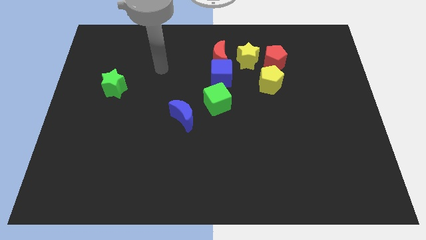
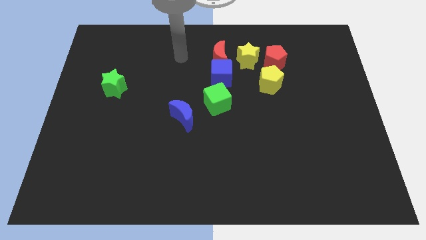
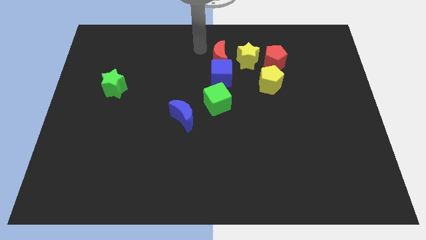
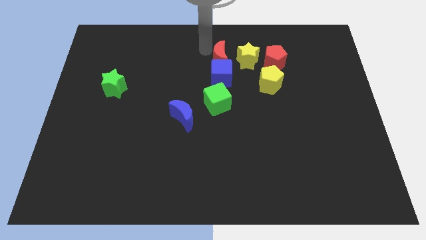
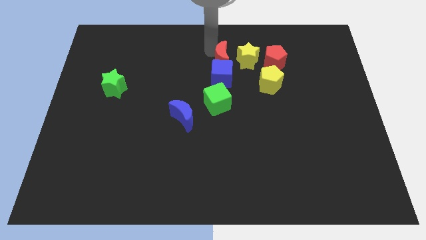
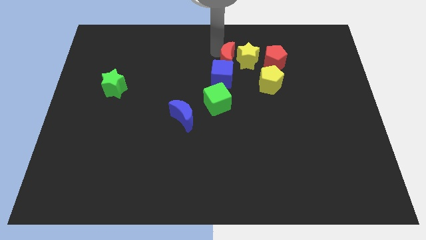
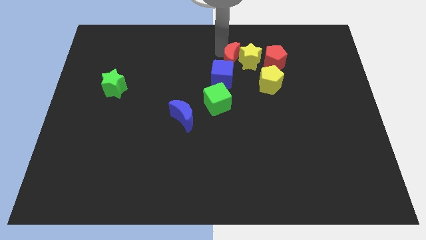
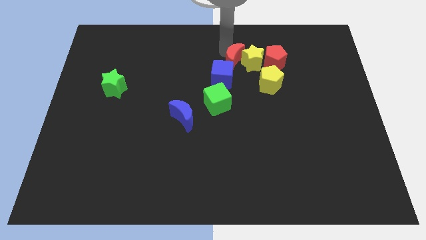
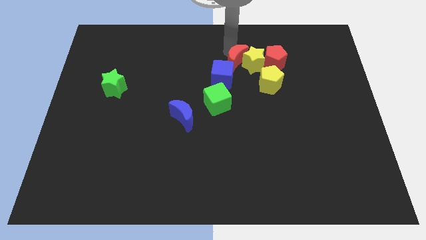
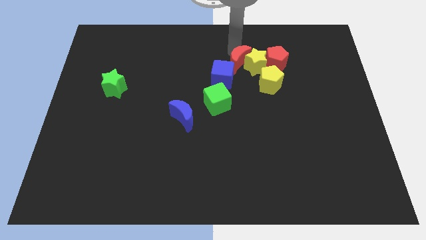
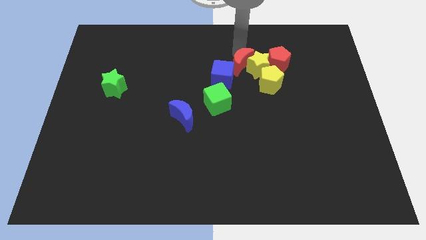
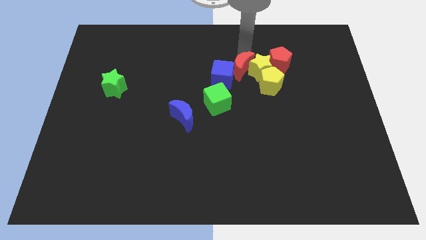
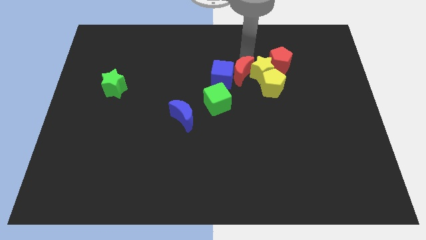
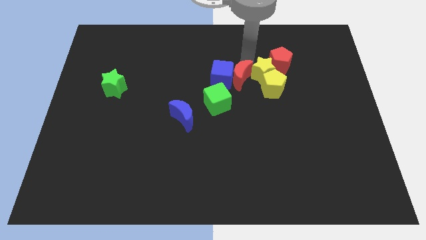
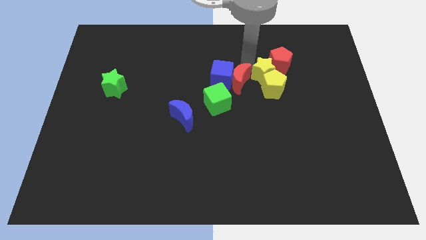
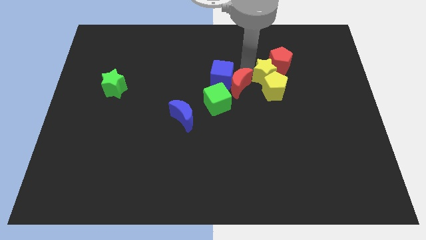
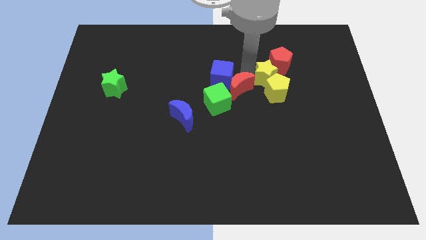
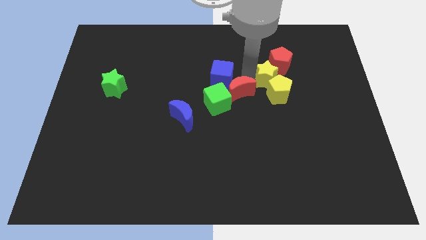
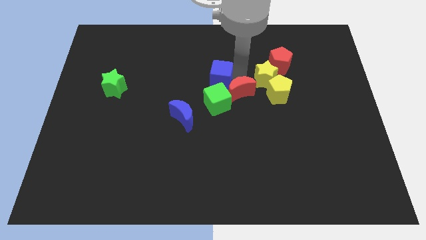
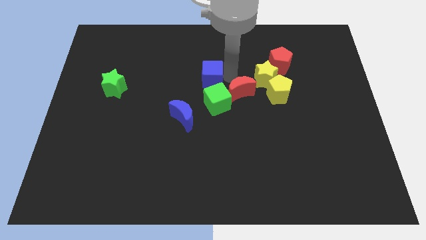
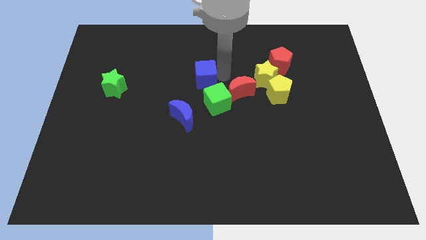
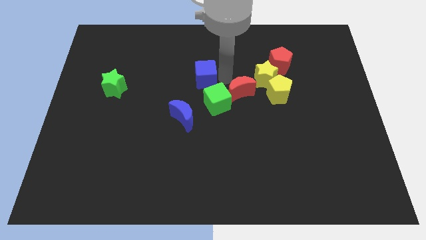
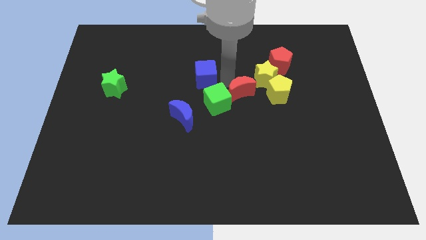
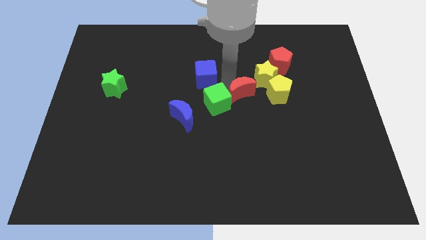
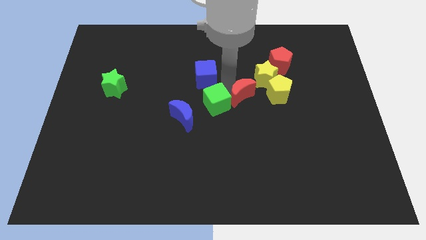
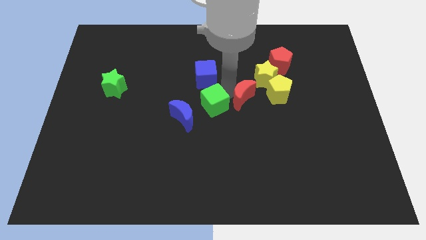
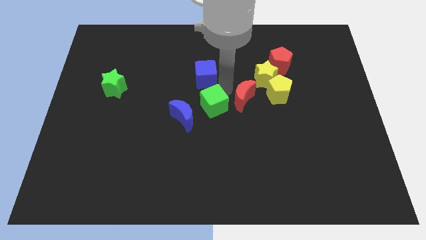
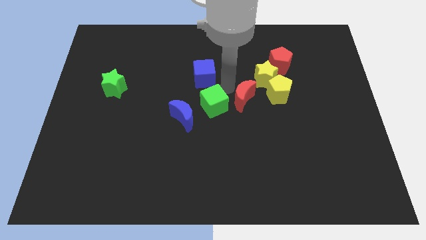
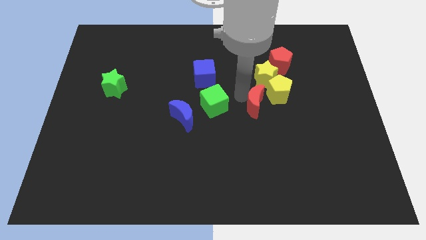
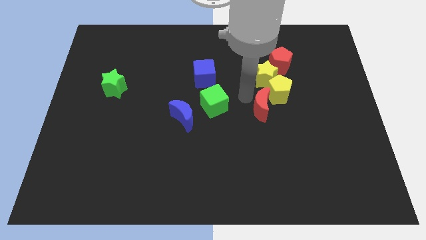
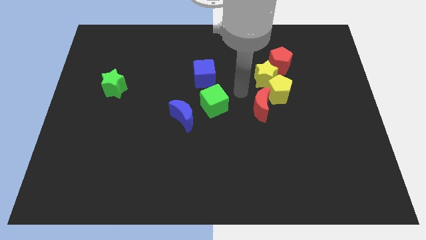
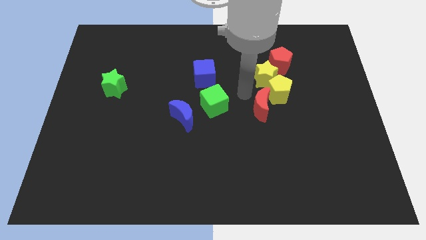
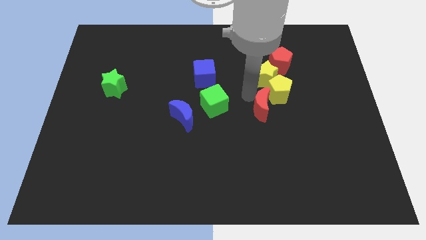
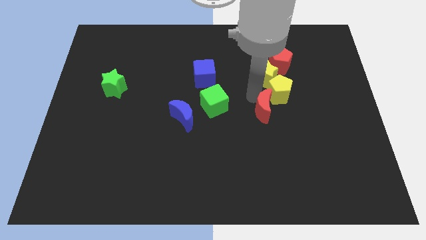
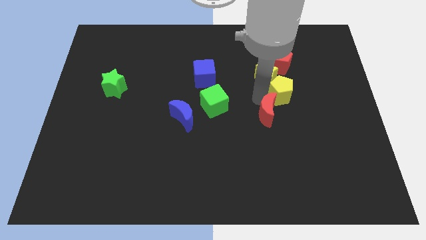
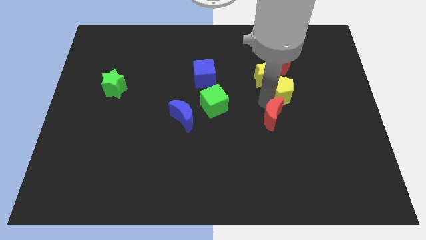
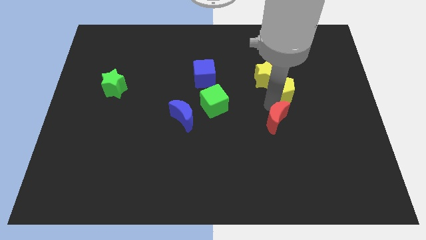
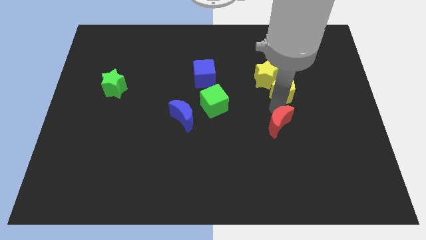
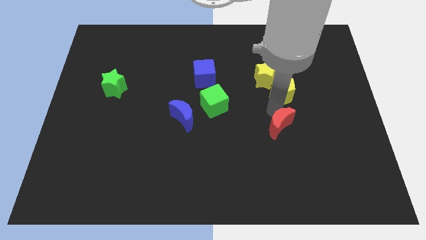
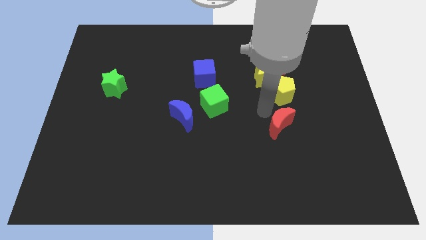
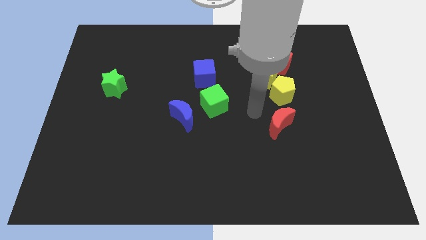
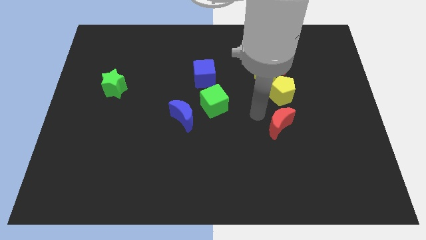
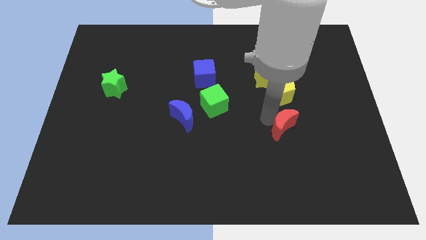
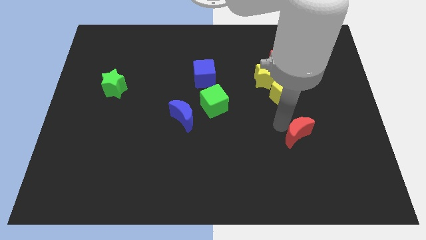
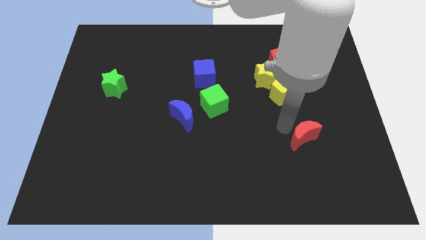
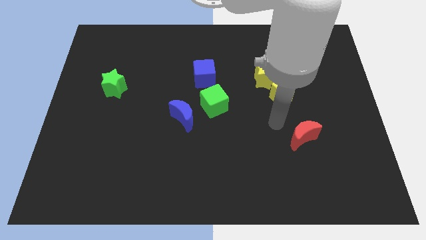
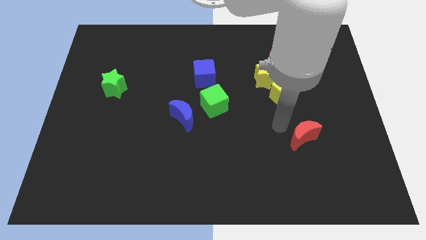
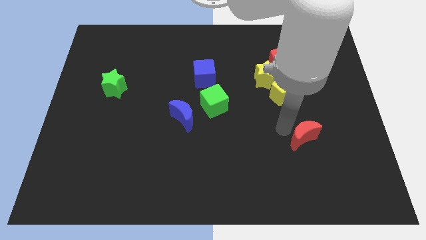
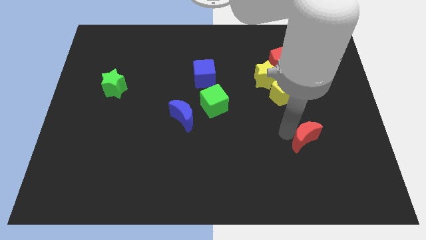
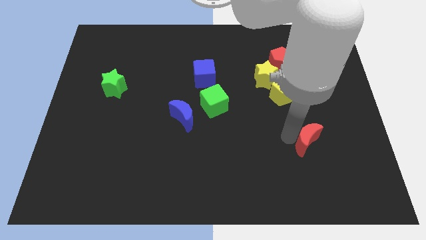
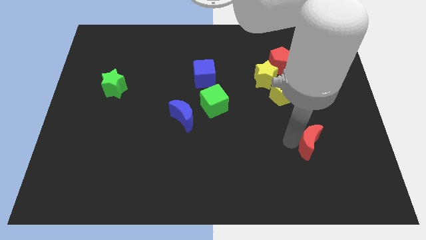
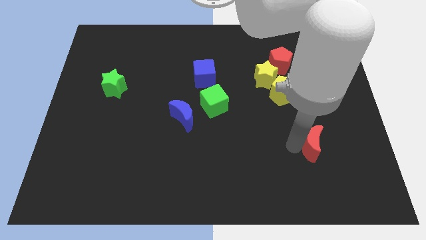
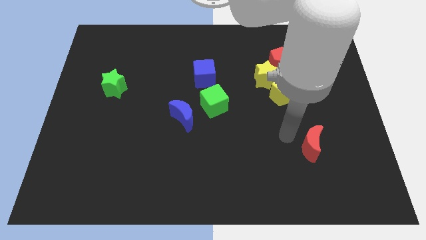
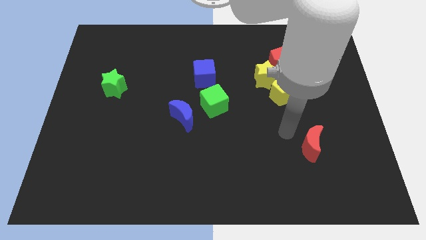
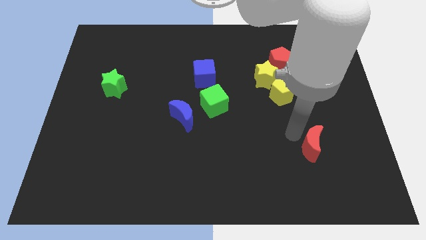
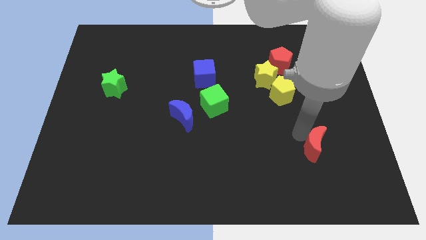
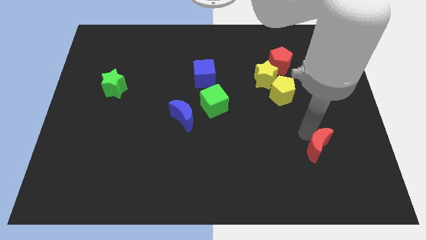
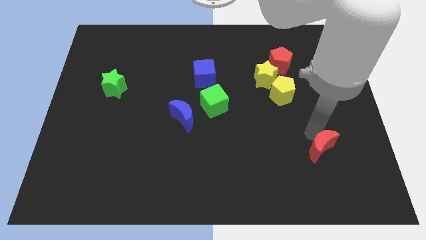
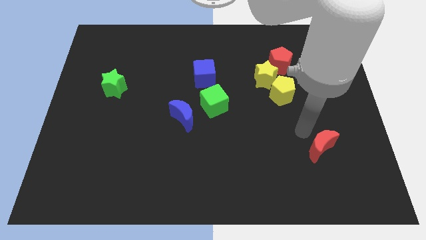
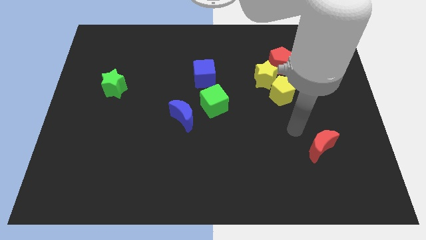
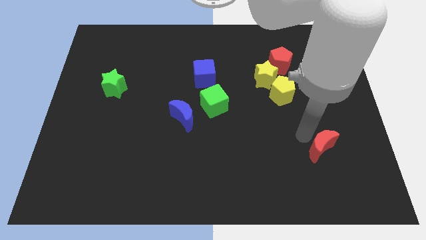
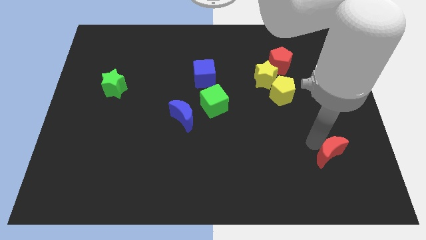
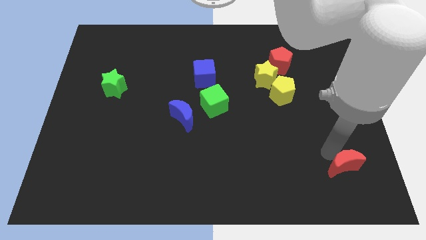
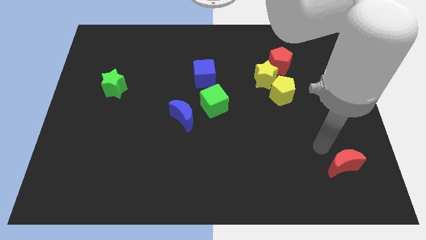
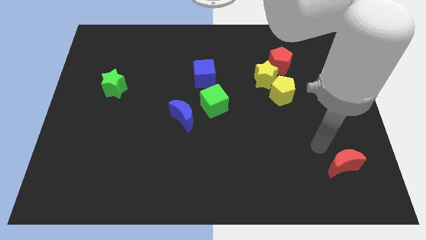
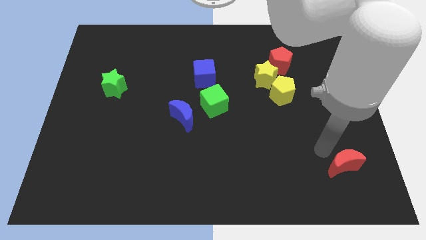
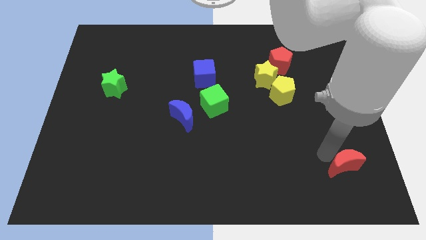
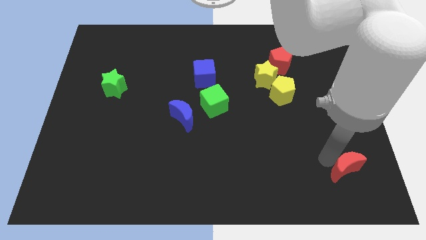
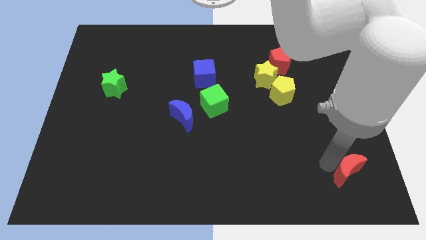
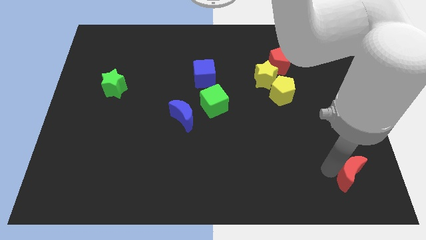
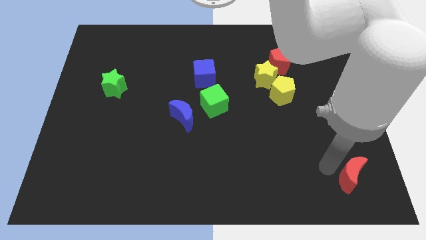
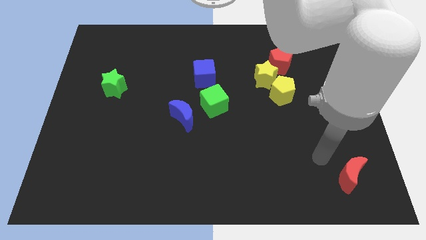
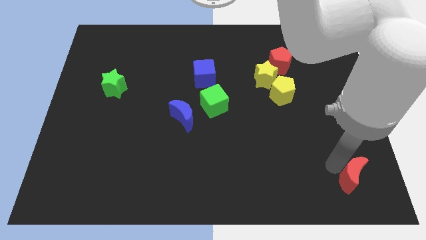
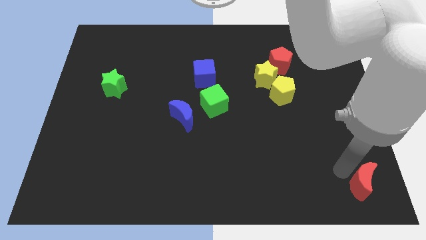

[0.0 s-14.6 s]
push the red moon to the bottom right corner
